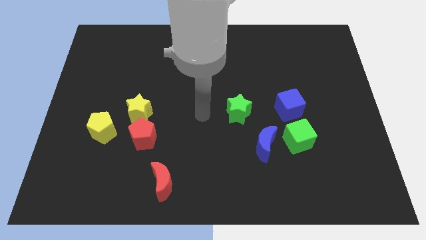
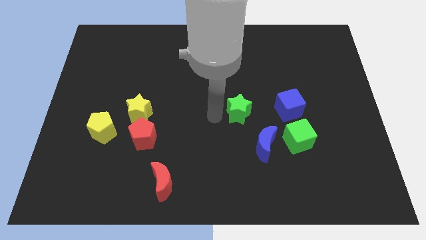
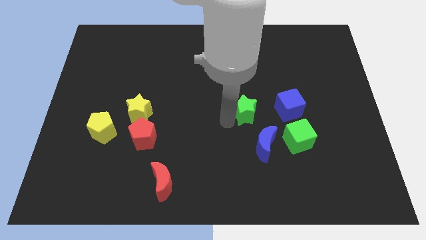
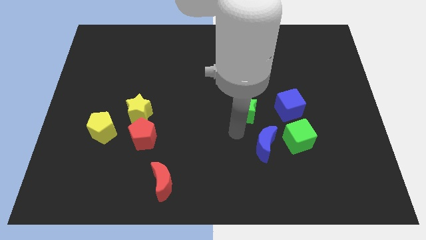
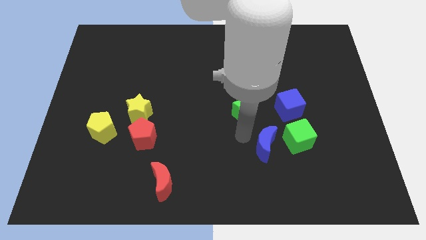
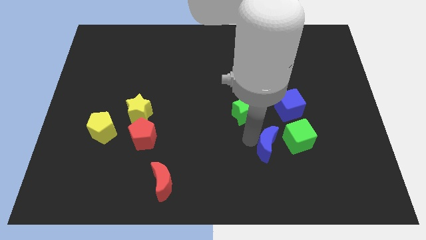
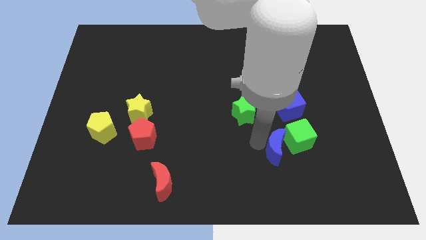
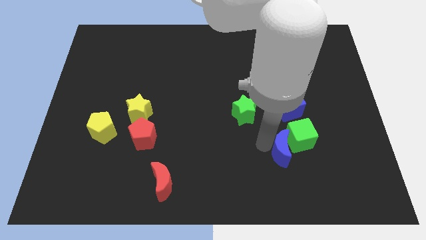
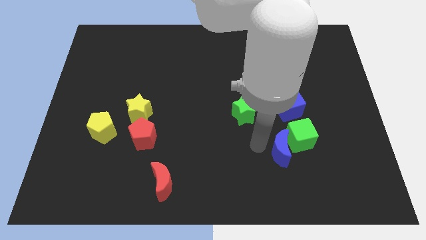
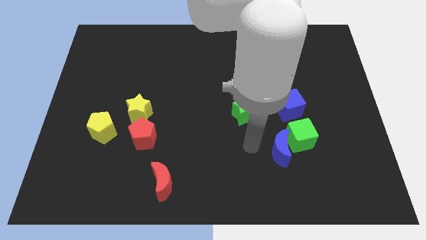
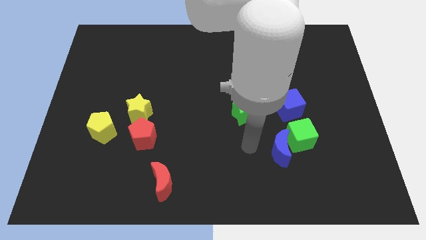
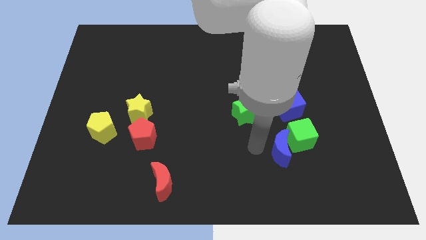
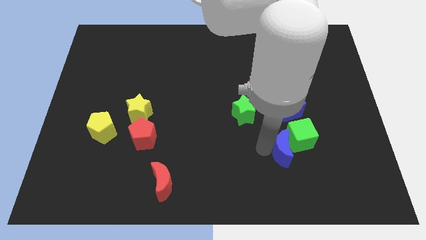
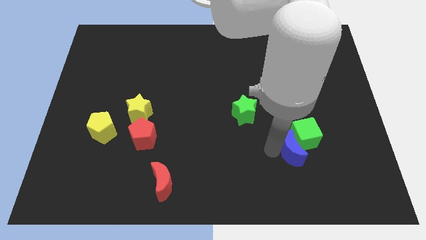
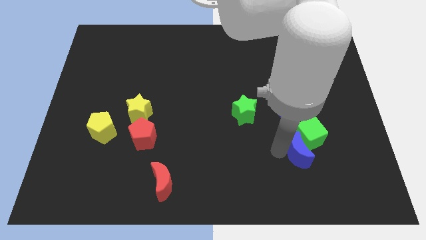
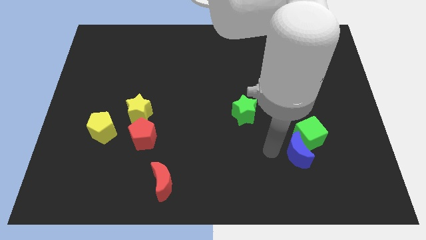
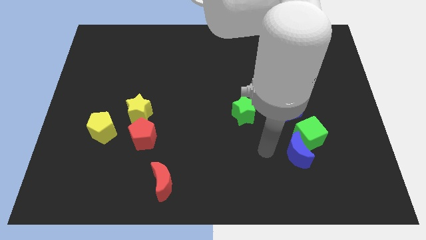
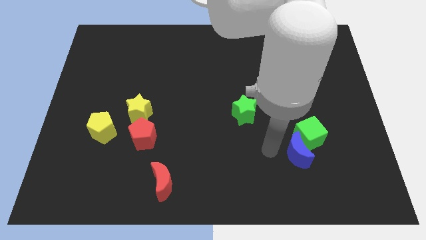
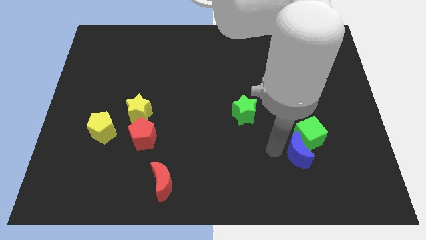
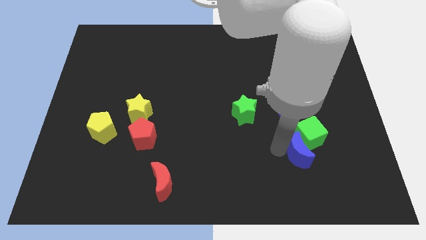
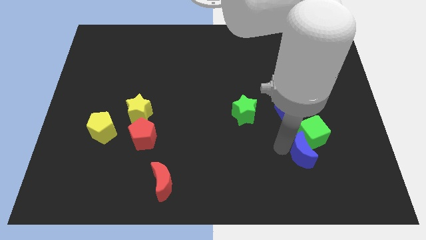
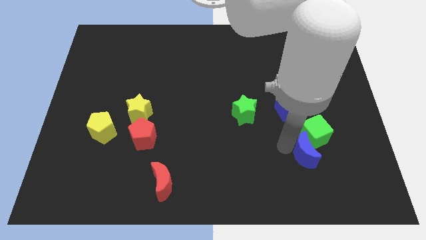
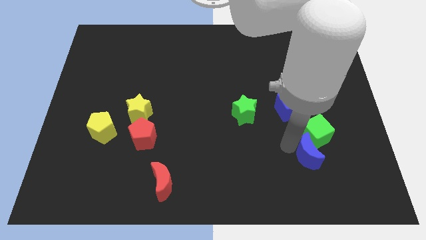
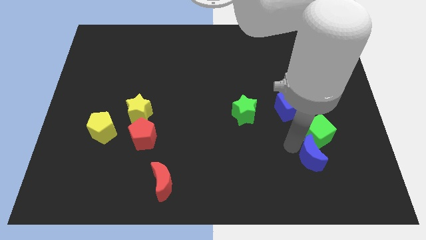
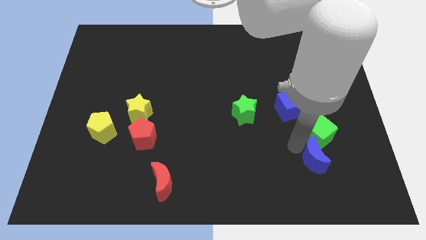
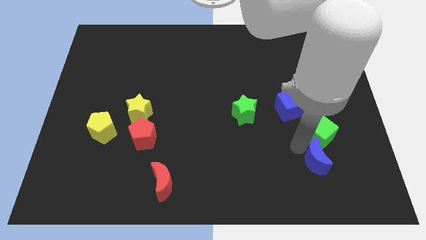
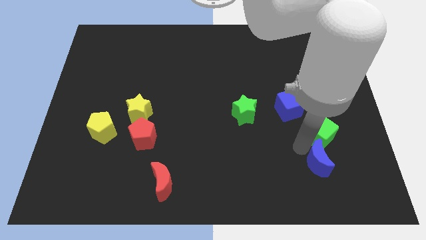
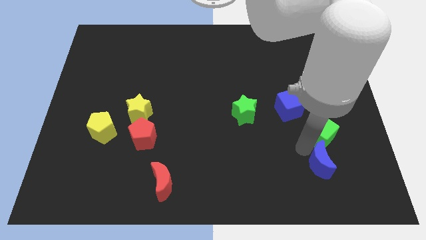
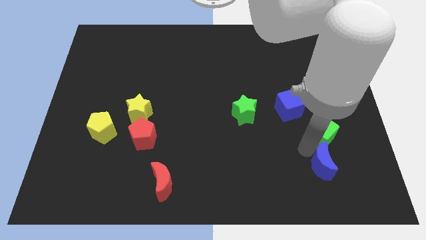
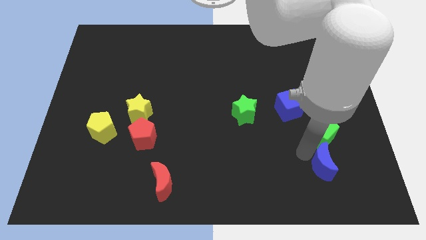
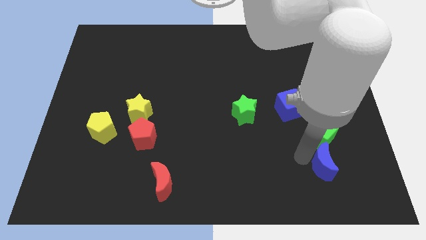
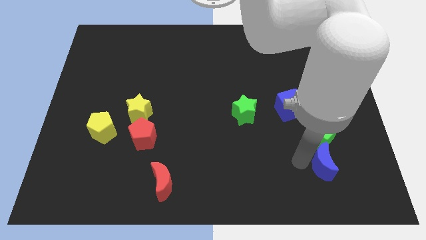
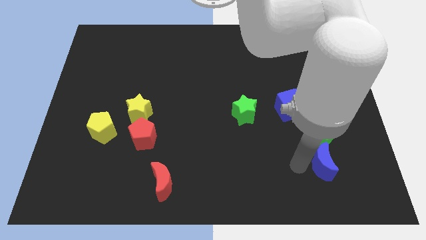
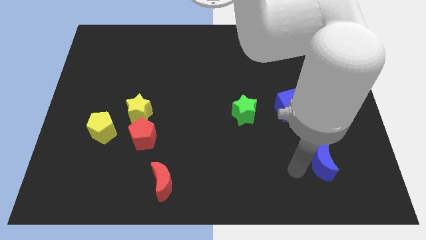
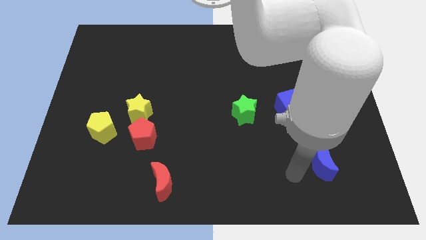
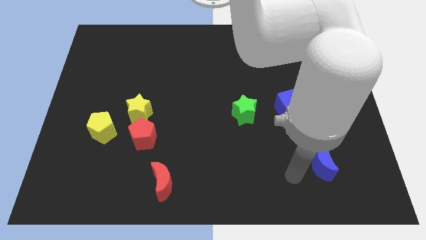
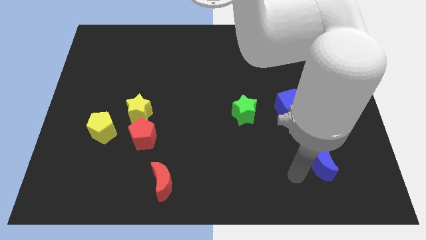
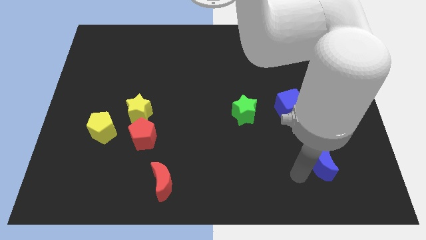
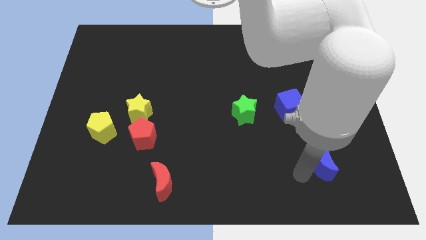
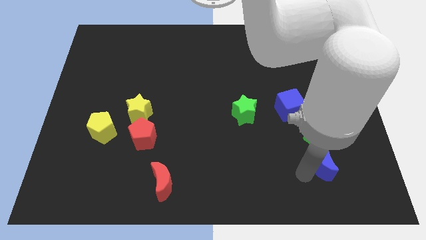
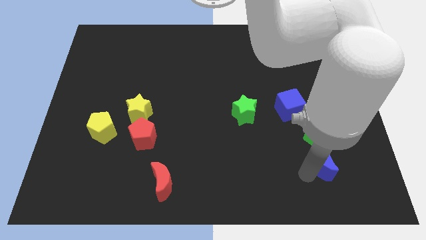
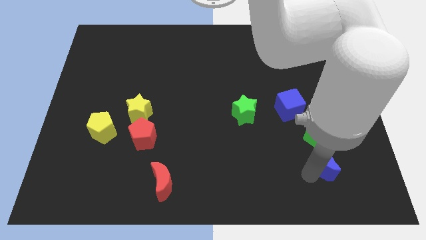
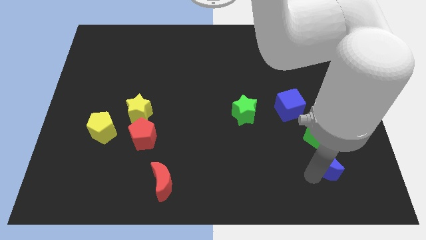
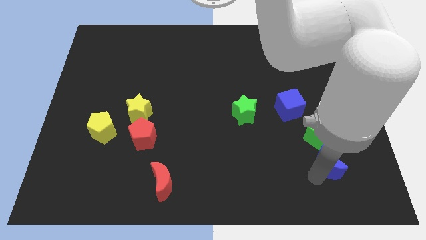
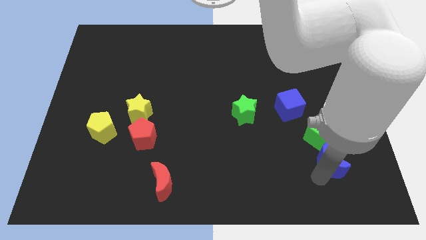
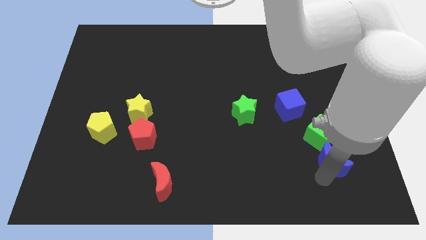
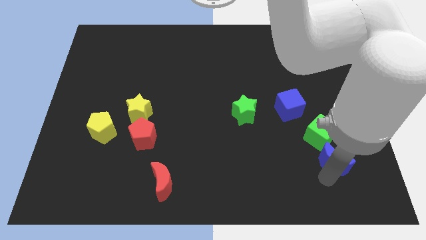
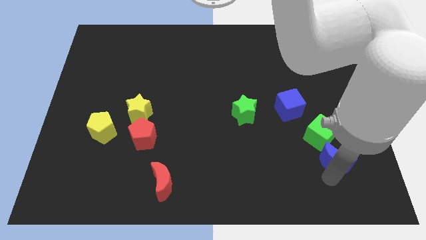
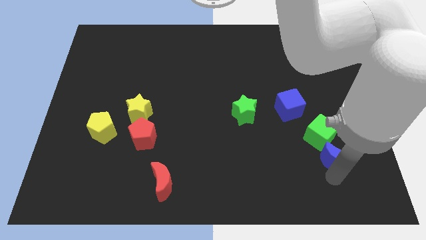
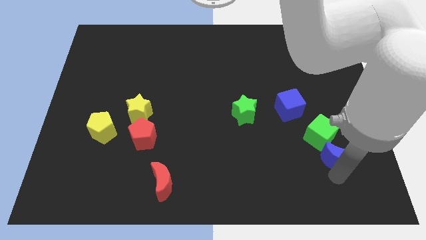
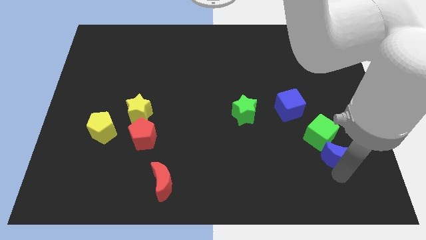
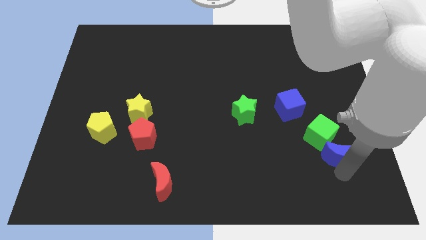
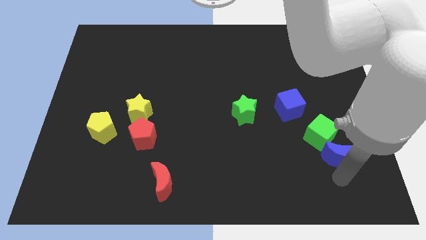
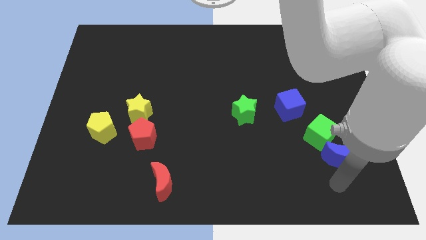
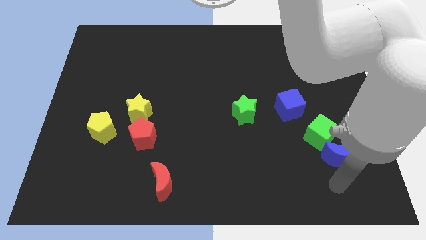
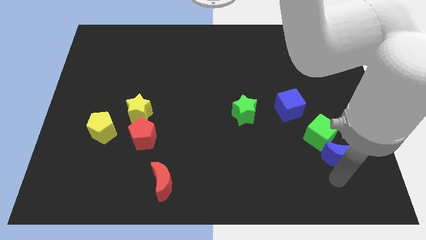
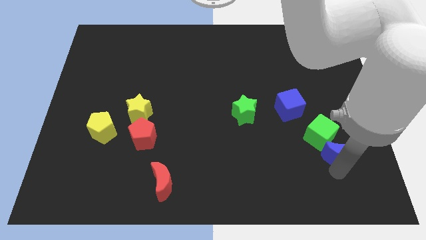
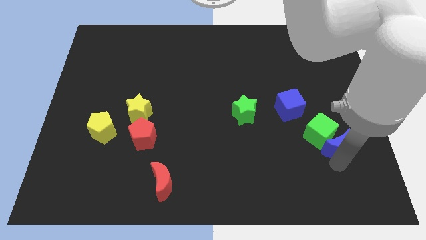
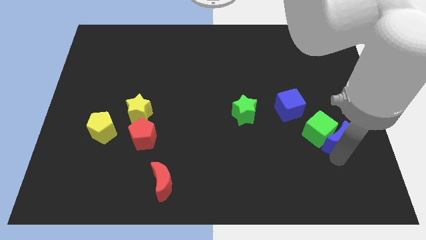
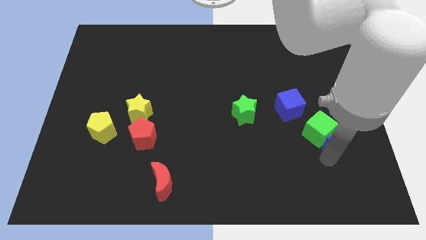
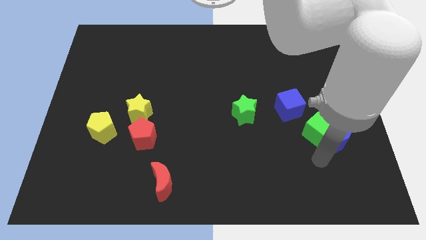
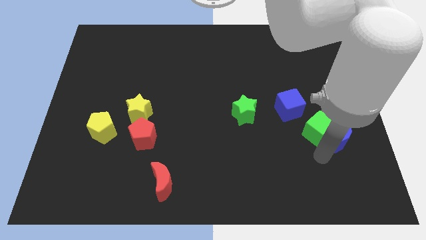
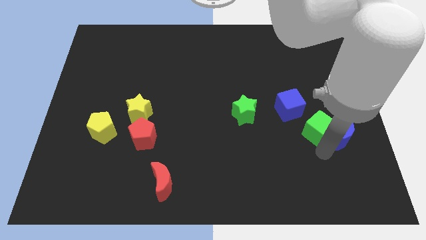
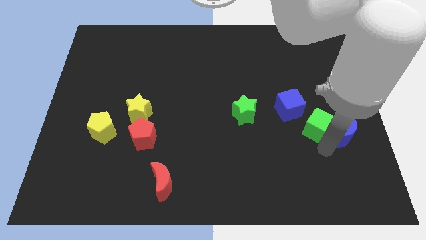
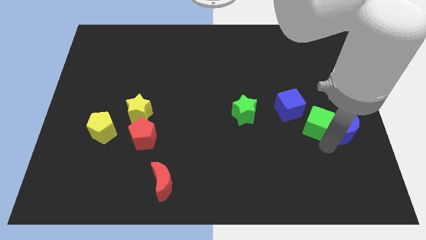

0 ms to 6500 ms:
push the blue moon to the right side

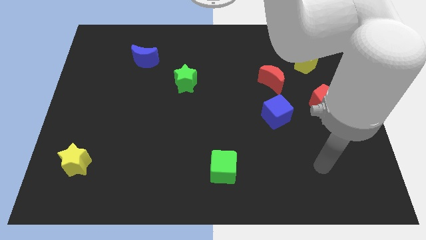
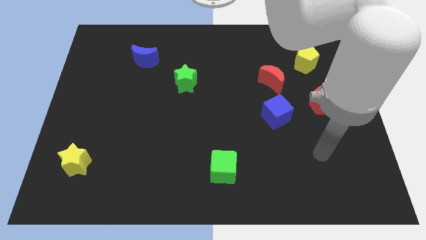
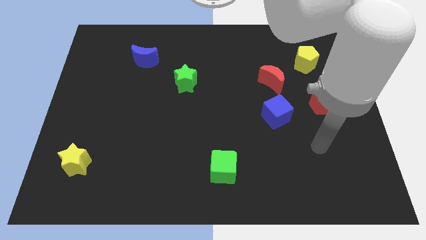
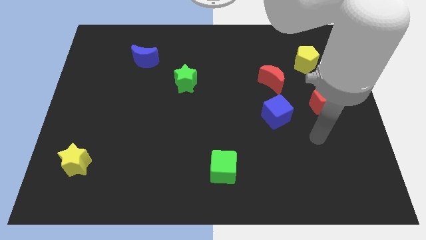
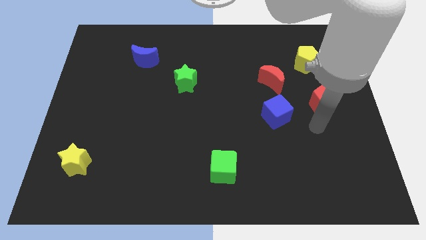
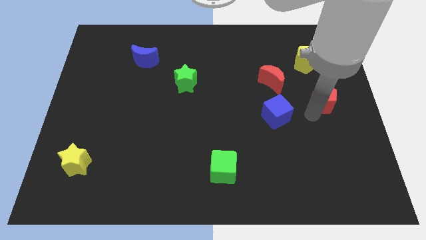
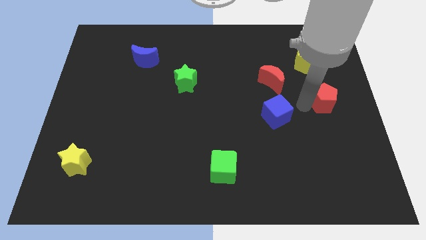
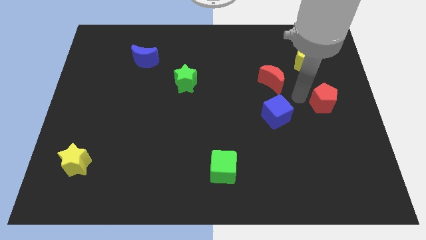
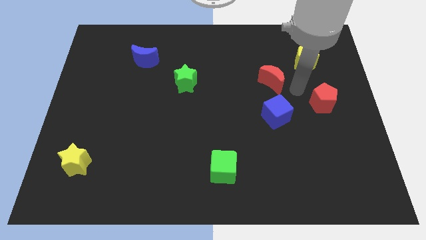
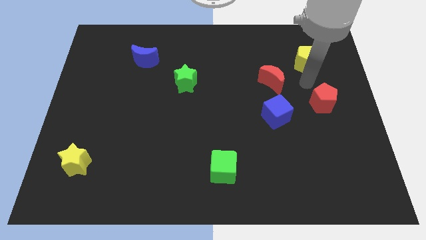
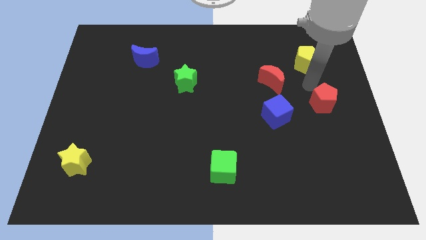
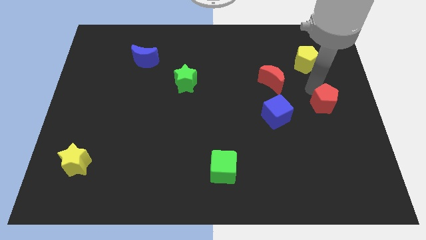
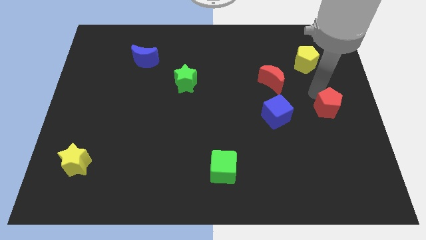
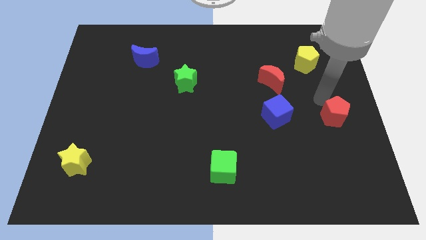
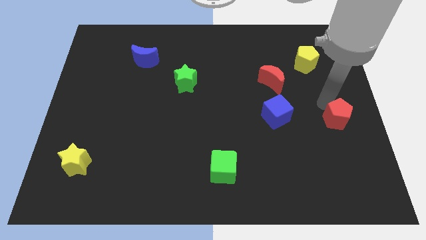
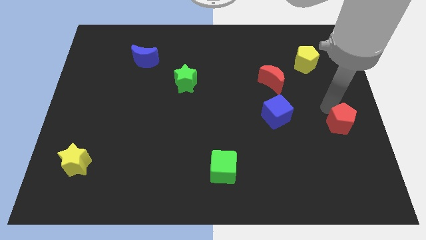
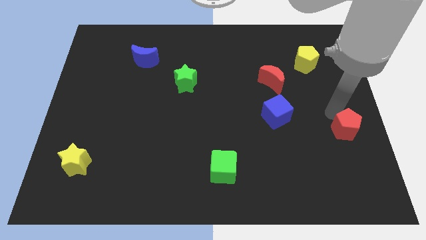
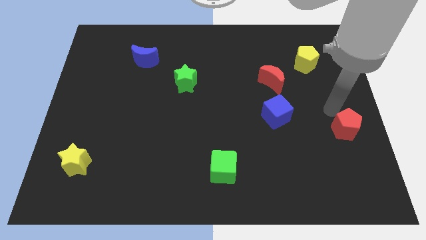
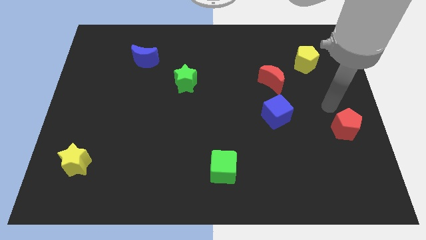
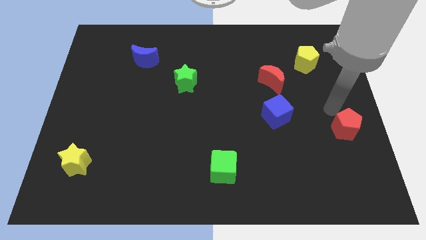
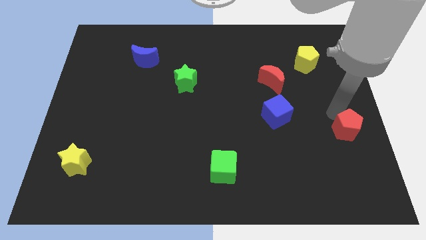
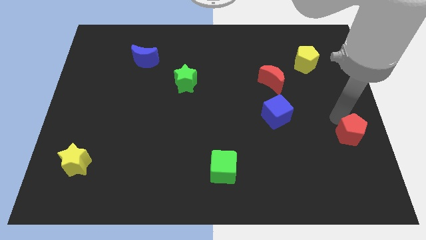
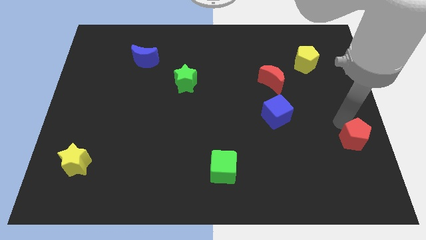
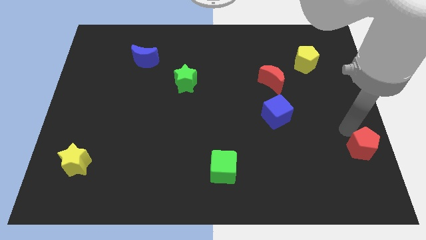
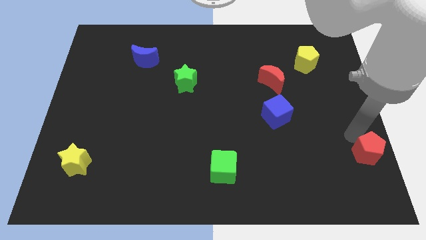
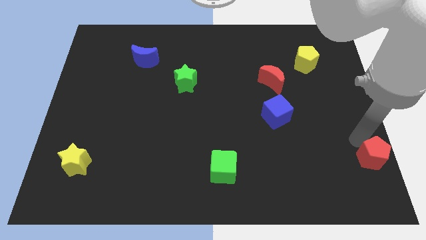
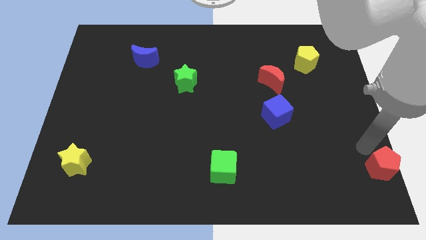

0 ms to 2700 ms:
put the red pentagon to the lower right corner
